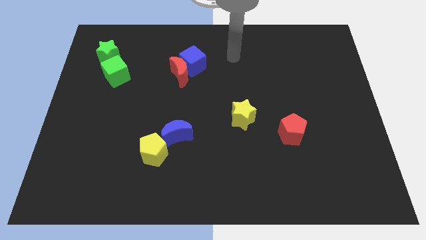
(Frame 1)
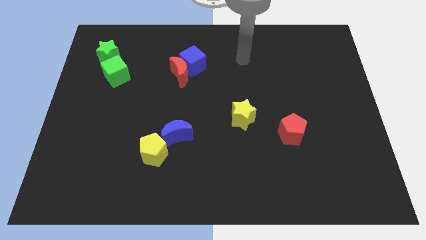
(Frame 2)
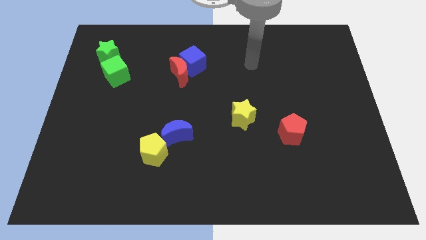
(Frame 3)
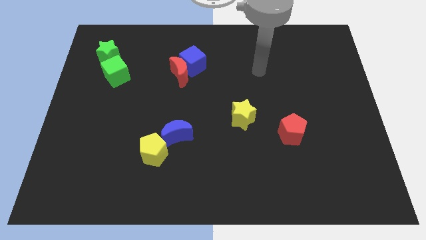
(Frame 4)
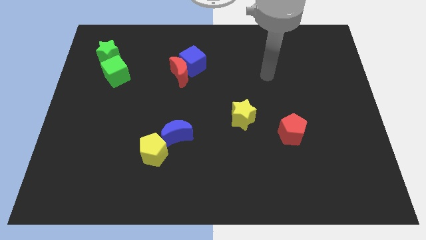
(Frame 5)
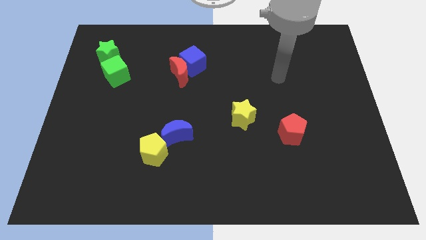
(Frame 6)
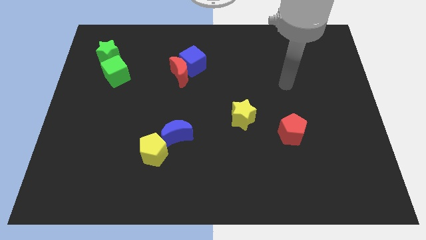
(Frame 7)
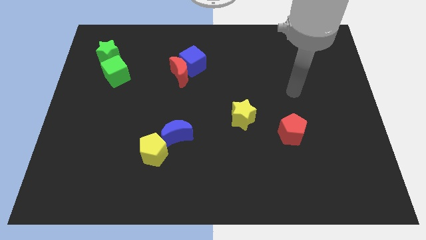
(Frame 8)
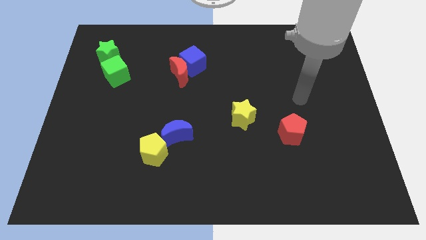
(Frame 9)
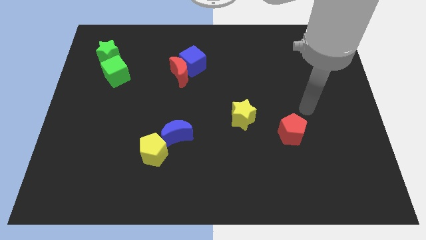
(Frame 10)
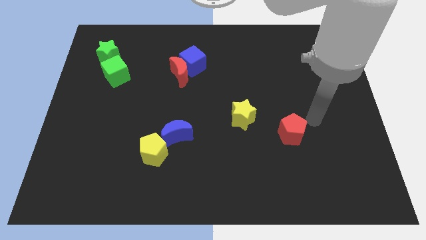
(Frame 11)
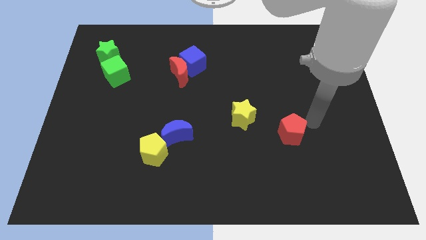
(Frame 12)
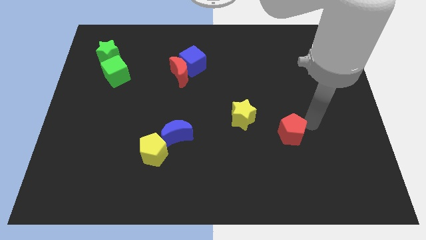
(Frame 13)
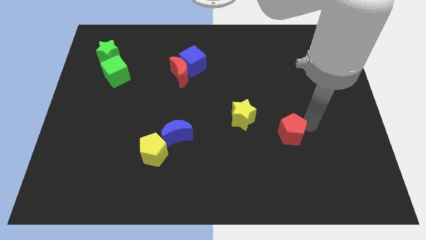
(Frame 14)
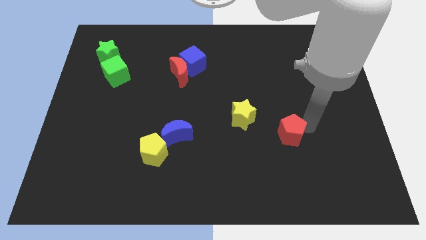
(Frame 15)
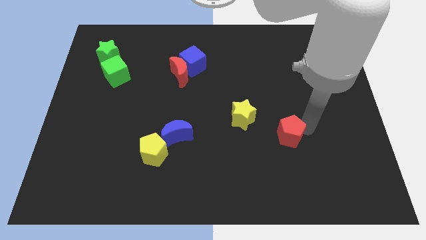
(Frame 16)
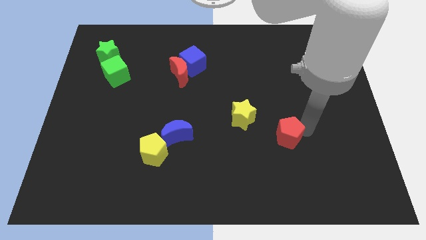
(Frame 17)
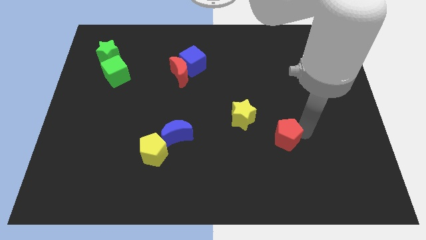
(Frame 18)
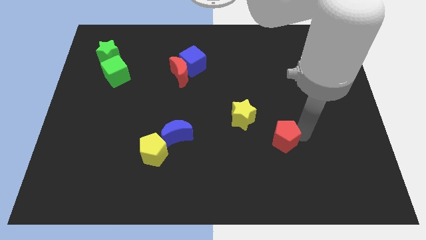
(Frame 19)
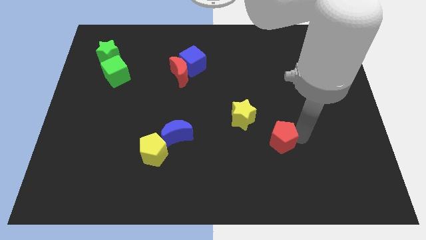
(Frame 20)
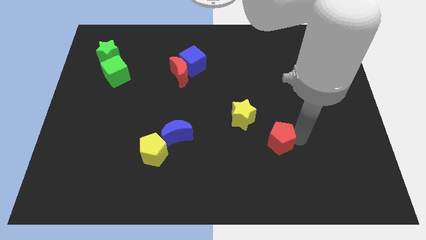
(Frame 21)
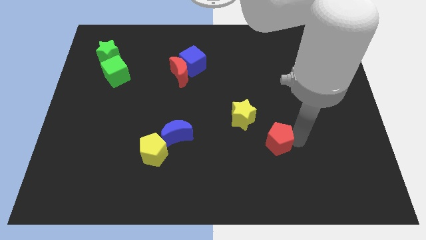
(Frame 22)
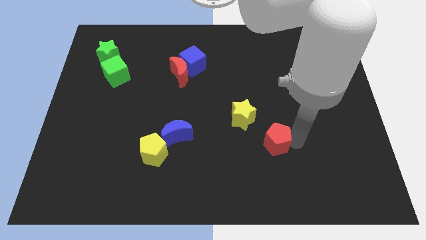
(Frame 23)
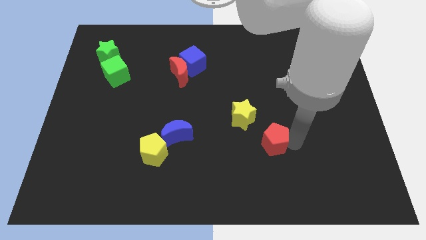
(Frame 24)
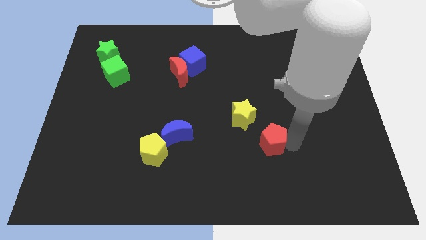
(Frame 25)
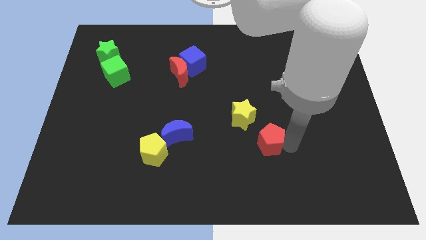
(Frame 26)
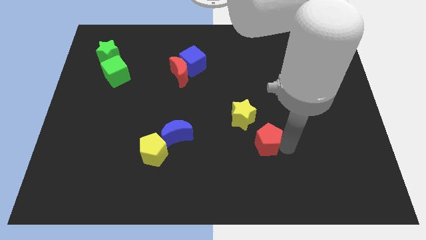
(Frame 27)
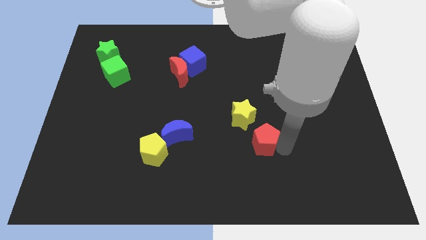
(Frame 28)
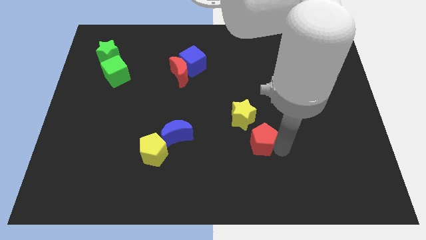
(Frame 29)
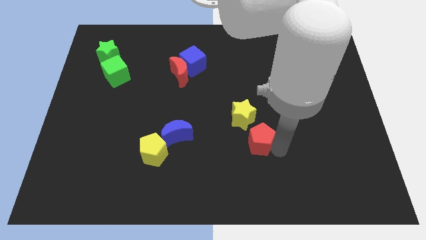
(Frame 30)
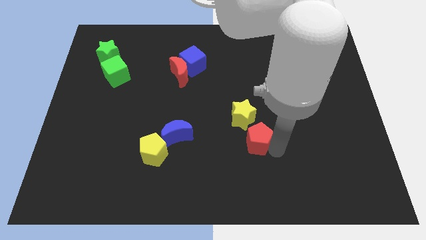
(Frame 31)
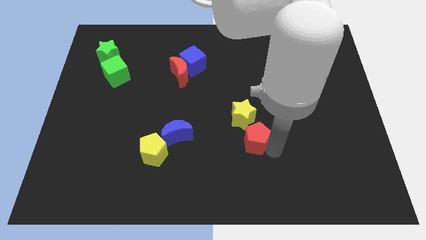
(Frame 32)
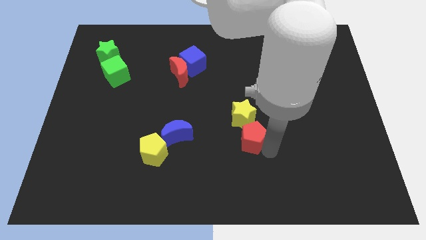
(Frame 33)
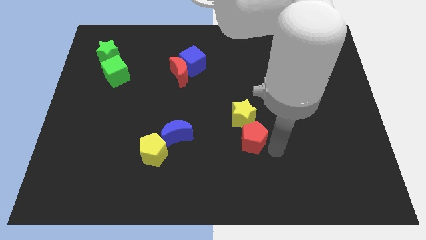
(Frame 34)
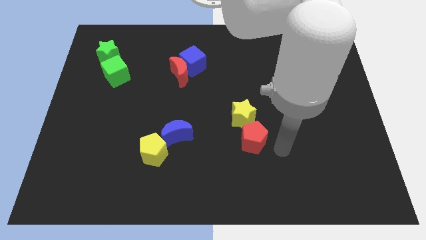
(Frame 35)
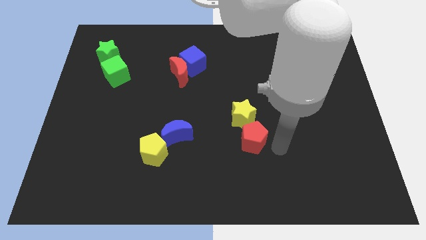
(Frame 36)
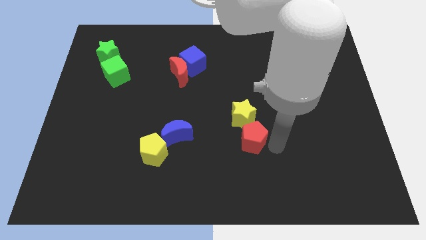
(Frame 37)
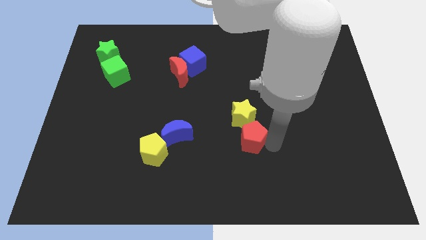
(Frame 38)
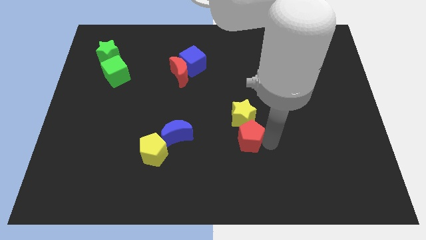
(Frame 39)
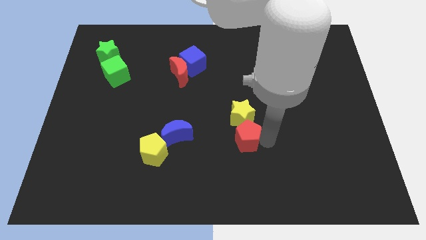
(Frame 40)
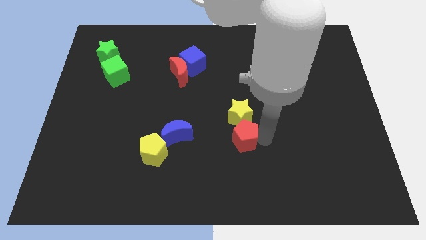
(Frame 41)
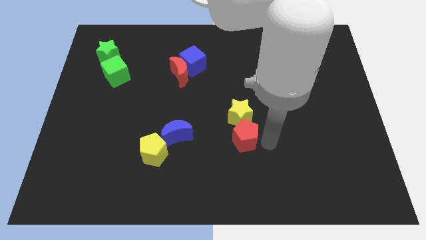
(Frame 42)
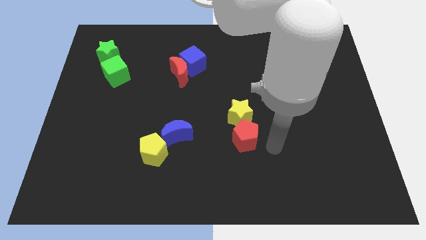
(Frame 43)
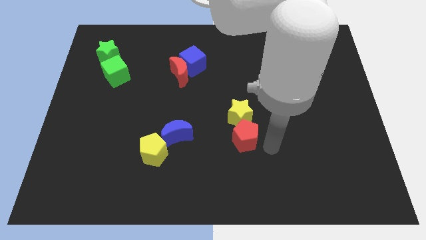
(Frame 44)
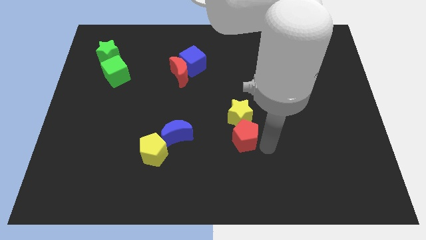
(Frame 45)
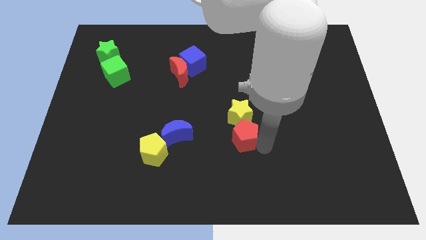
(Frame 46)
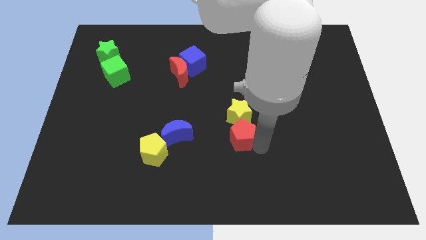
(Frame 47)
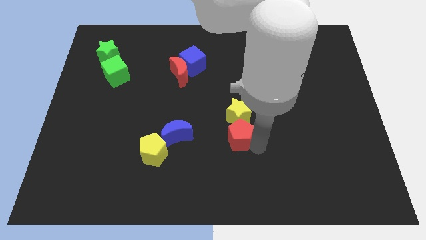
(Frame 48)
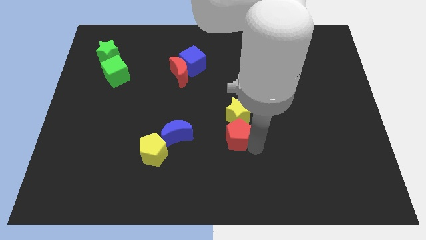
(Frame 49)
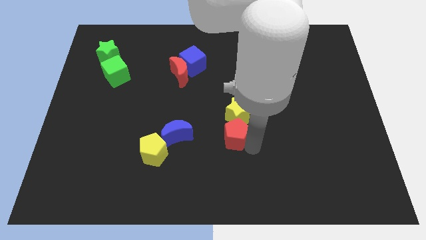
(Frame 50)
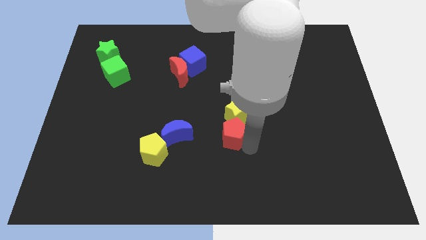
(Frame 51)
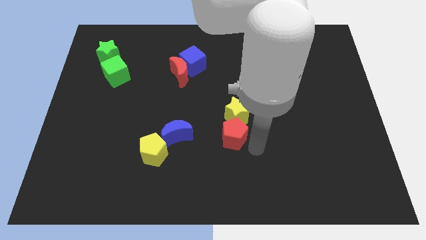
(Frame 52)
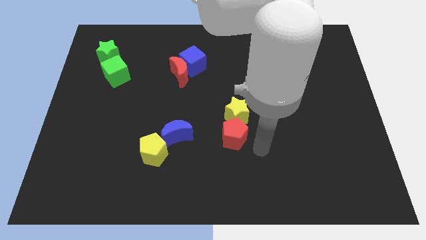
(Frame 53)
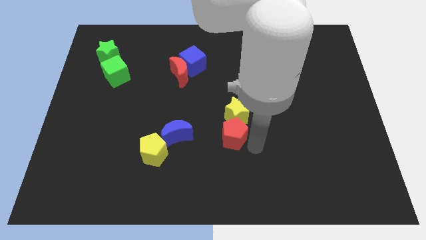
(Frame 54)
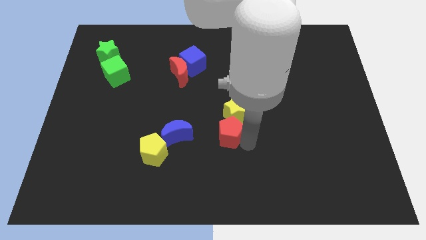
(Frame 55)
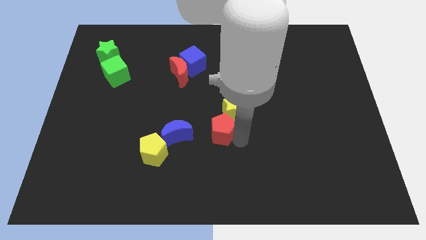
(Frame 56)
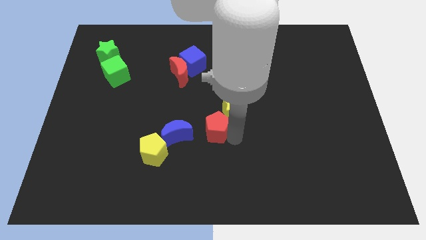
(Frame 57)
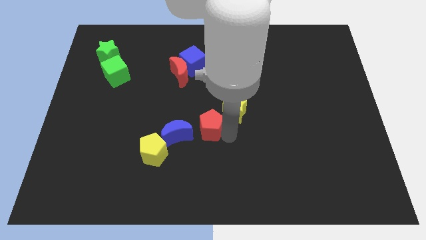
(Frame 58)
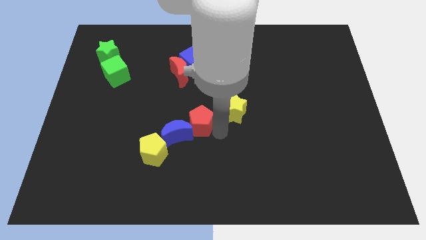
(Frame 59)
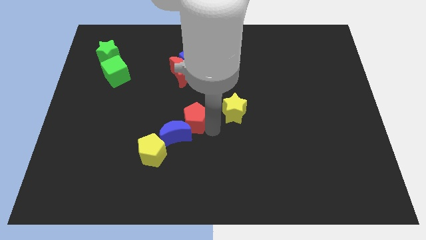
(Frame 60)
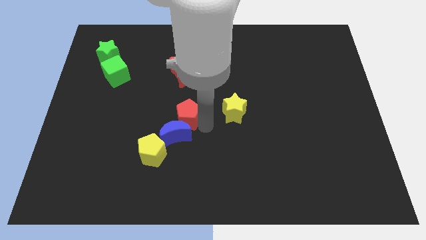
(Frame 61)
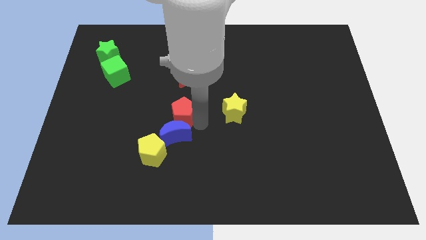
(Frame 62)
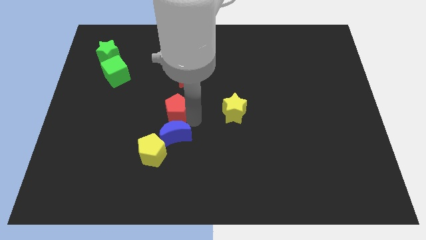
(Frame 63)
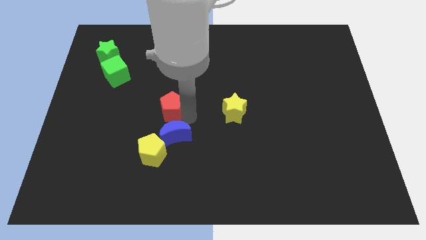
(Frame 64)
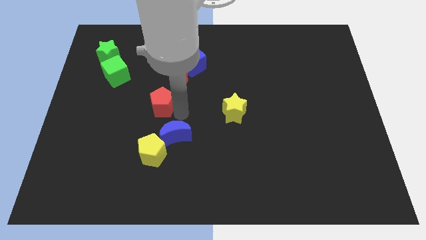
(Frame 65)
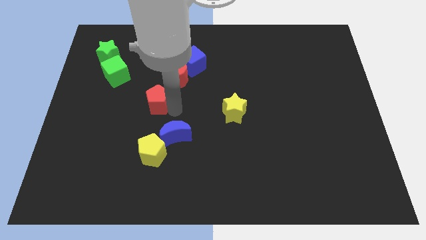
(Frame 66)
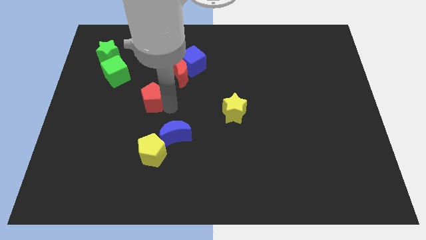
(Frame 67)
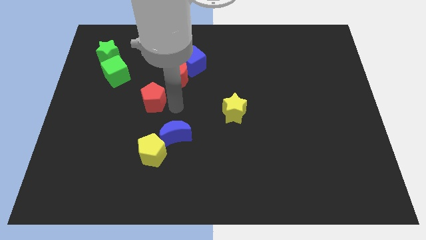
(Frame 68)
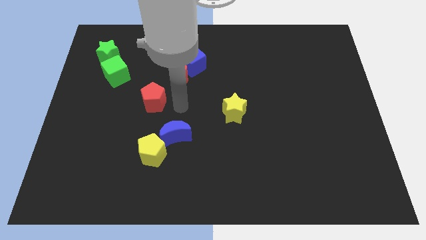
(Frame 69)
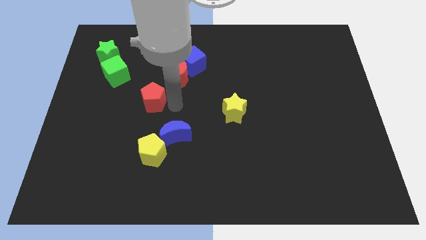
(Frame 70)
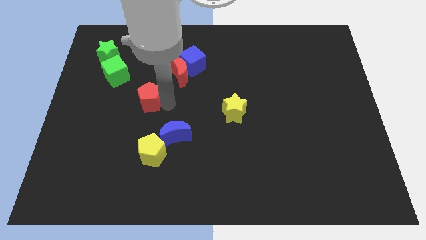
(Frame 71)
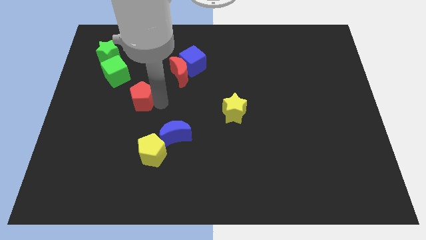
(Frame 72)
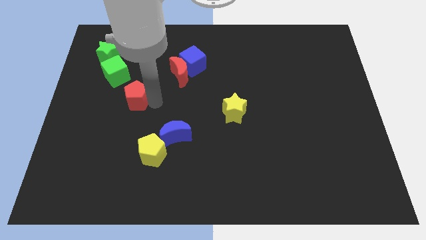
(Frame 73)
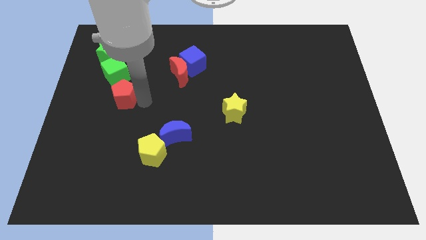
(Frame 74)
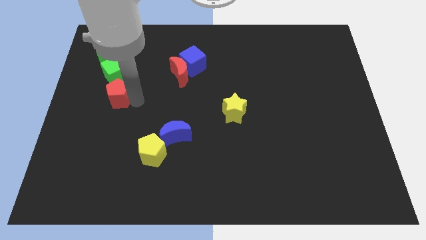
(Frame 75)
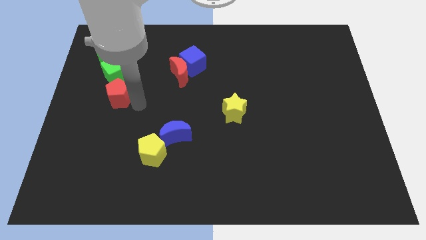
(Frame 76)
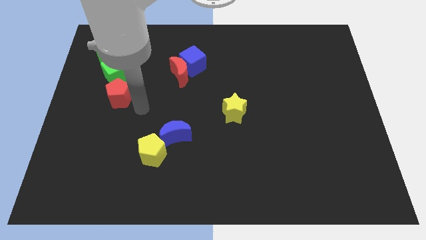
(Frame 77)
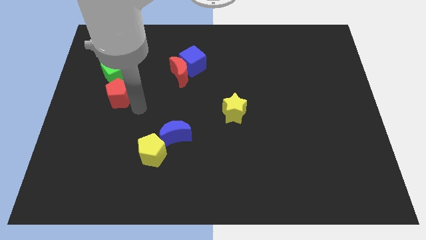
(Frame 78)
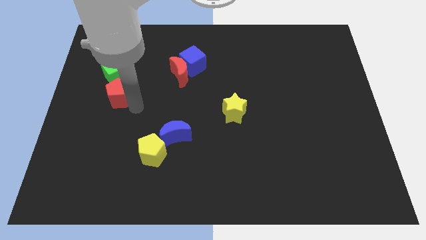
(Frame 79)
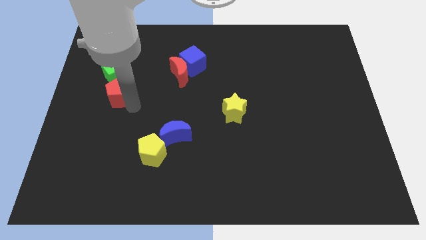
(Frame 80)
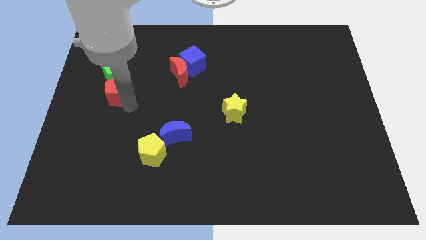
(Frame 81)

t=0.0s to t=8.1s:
put the red pentagon to the bottom side of the green star
